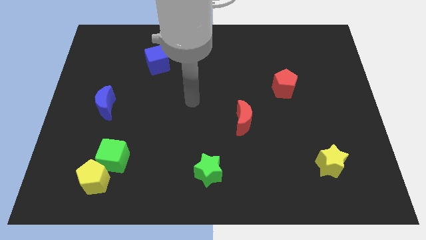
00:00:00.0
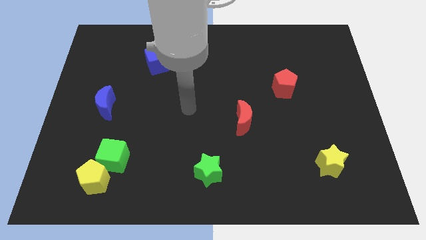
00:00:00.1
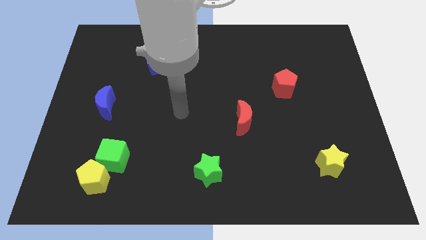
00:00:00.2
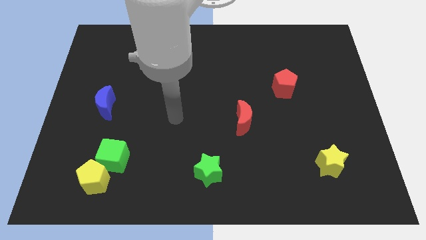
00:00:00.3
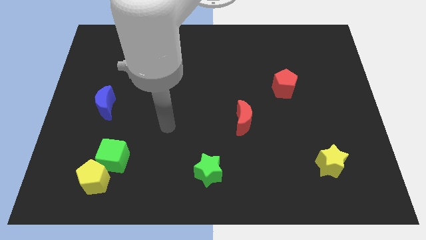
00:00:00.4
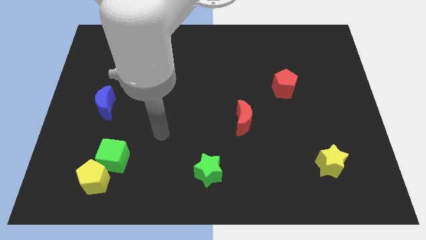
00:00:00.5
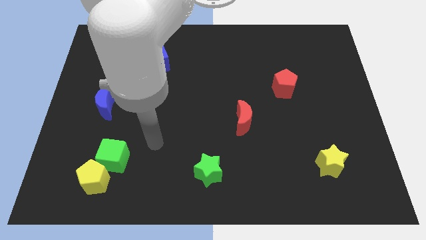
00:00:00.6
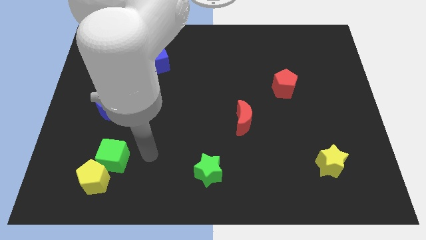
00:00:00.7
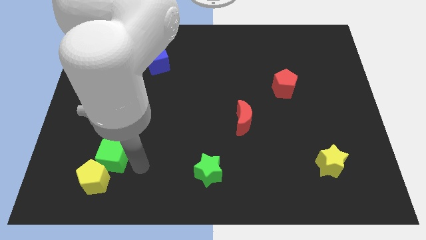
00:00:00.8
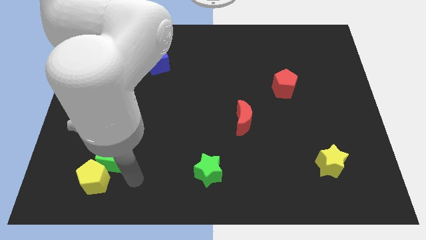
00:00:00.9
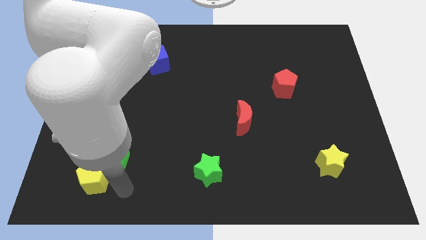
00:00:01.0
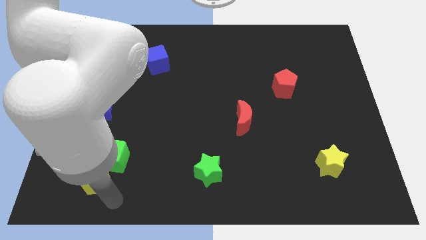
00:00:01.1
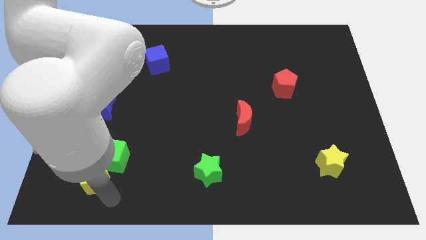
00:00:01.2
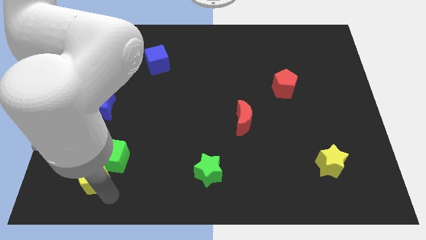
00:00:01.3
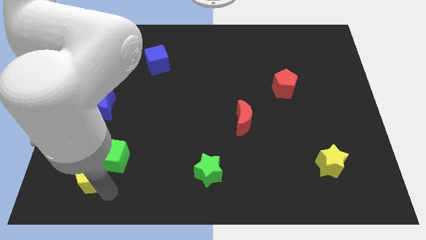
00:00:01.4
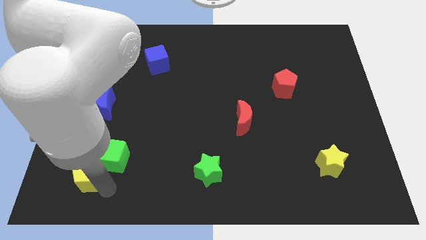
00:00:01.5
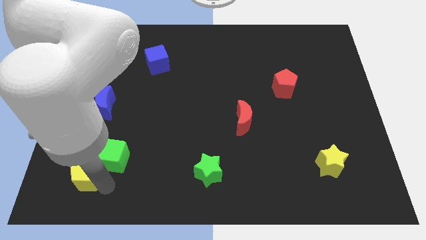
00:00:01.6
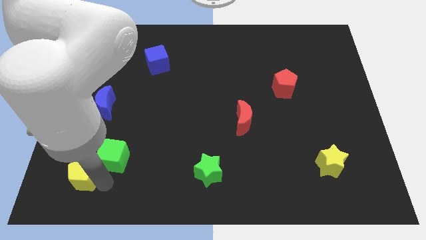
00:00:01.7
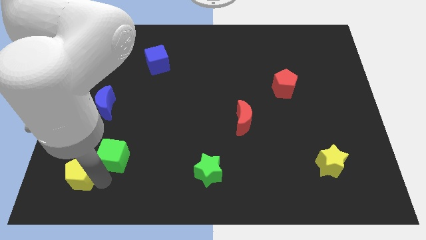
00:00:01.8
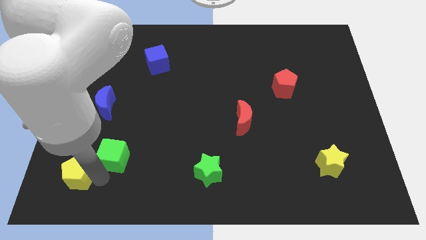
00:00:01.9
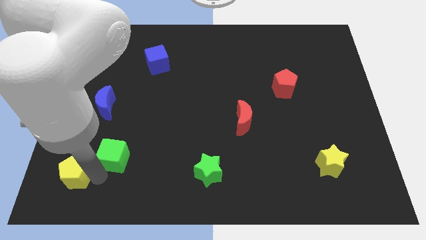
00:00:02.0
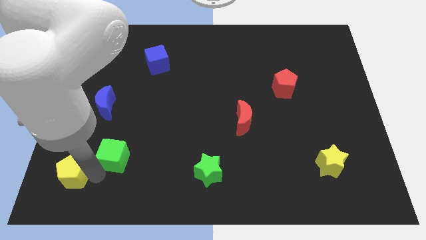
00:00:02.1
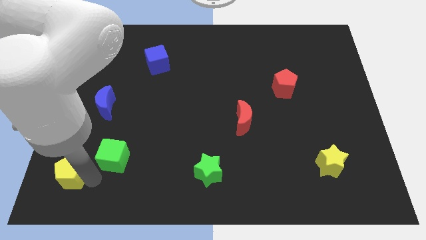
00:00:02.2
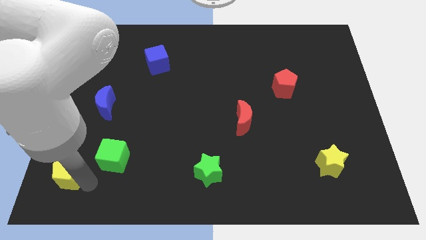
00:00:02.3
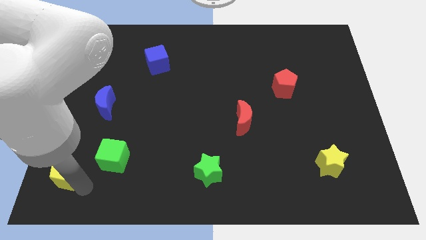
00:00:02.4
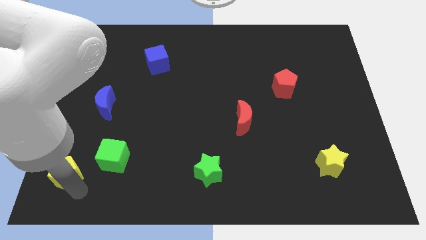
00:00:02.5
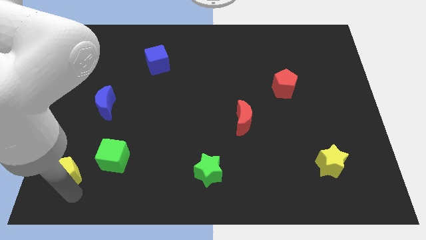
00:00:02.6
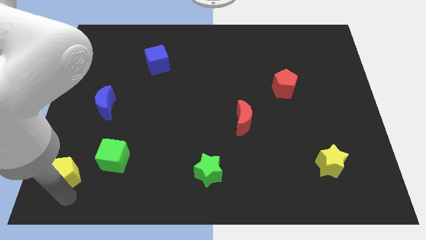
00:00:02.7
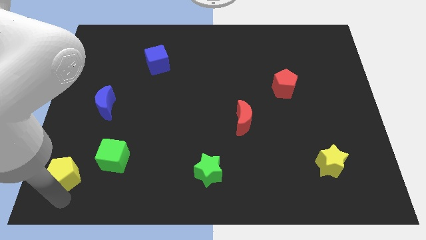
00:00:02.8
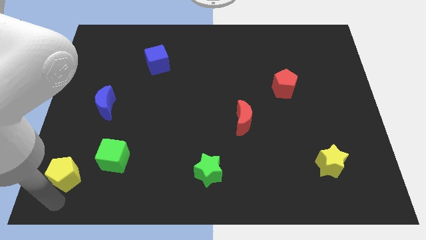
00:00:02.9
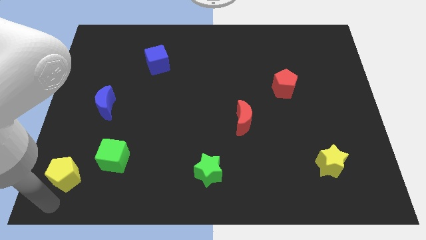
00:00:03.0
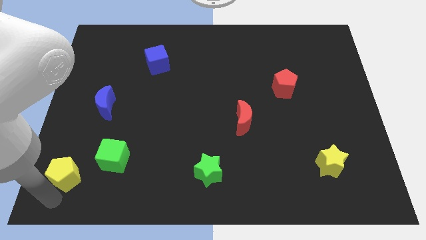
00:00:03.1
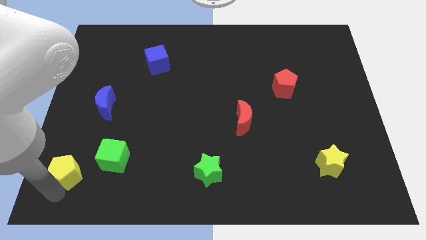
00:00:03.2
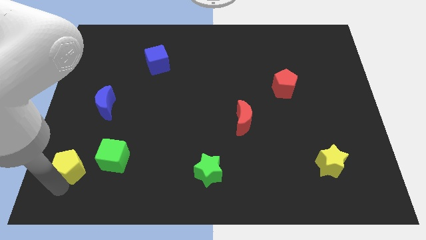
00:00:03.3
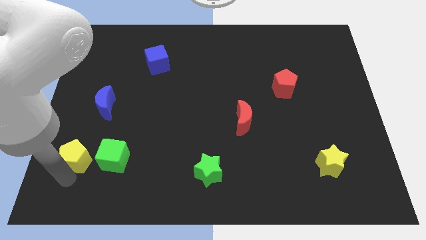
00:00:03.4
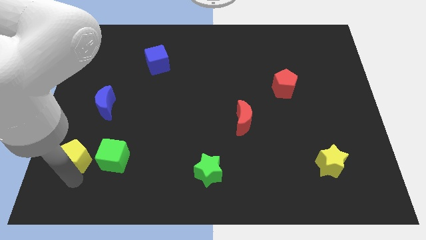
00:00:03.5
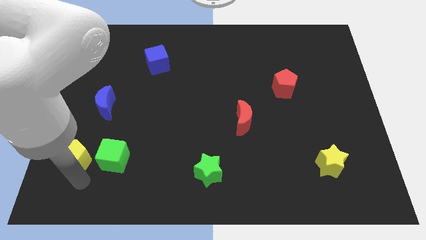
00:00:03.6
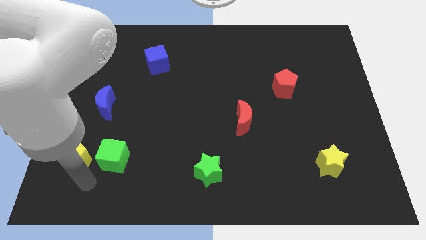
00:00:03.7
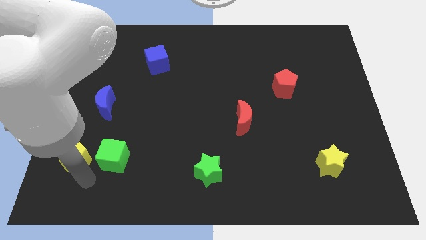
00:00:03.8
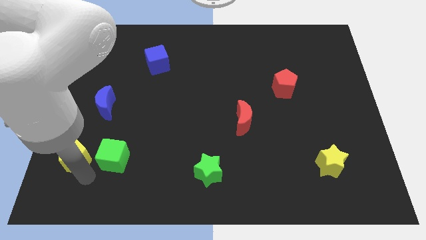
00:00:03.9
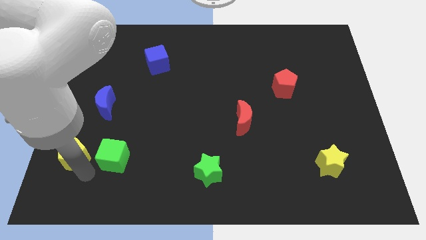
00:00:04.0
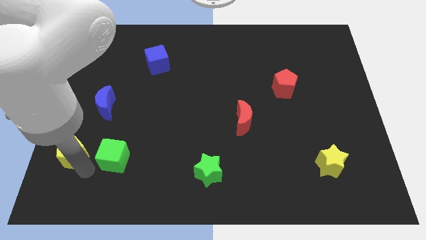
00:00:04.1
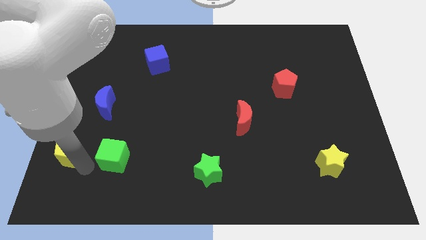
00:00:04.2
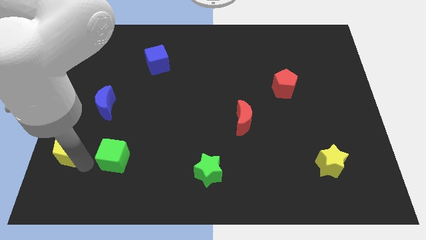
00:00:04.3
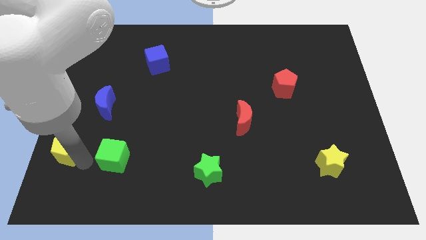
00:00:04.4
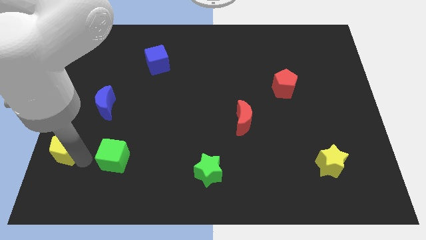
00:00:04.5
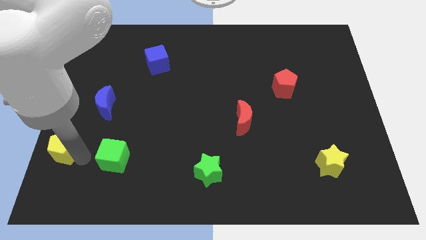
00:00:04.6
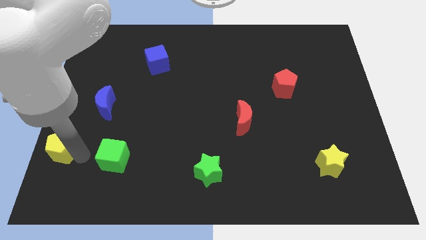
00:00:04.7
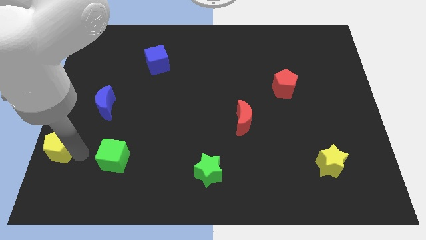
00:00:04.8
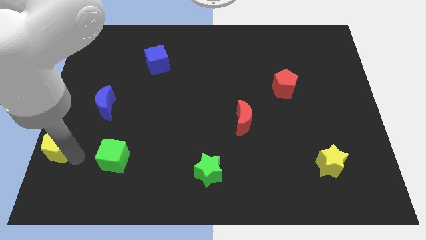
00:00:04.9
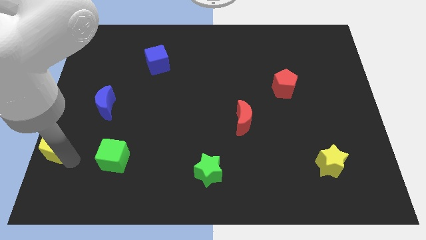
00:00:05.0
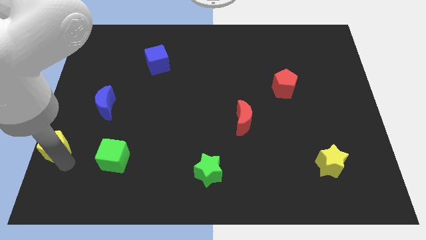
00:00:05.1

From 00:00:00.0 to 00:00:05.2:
push the yellow pentagon to the left side
